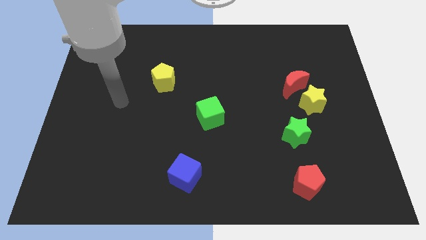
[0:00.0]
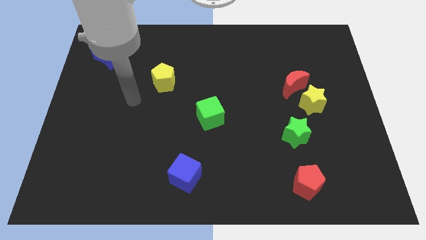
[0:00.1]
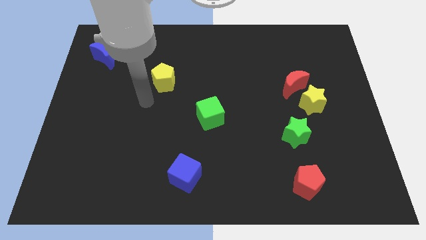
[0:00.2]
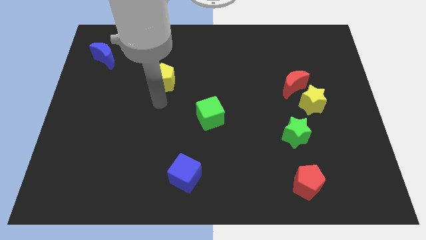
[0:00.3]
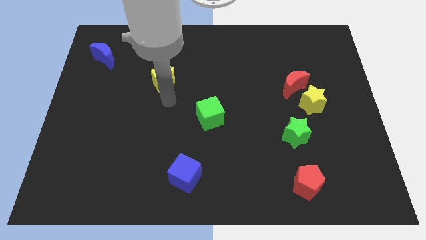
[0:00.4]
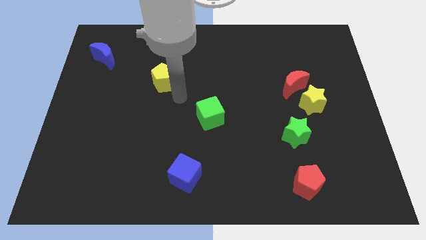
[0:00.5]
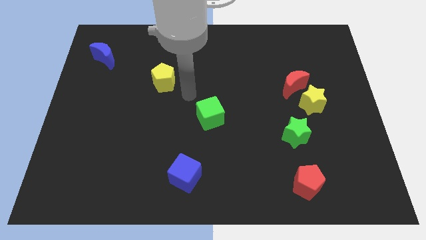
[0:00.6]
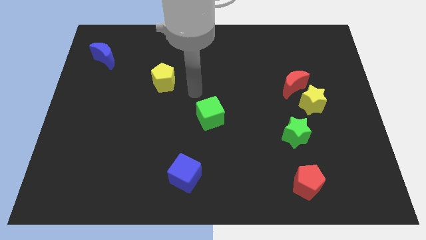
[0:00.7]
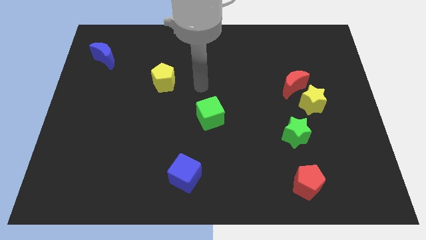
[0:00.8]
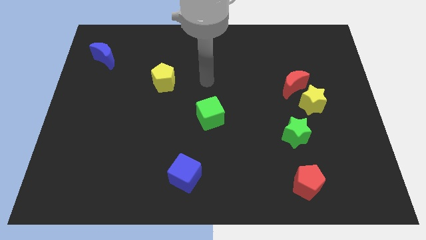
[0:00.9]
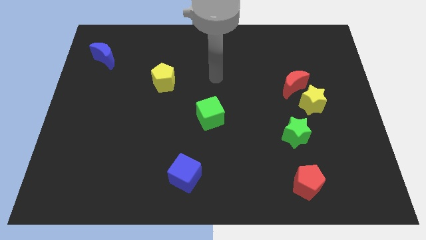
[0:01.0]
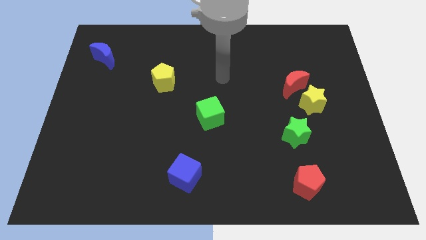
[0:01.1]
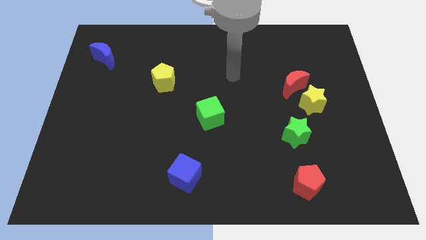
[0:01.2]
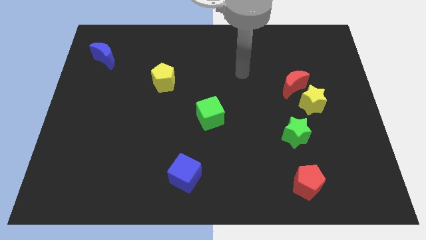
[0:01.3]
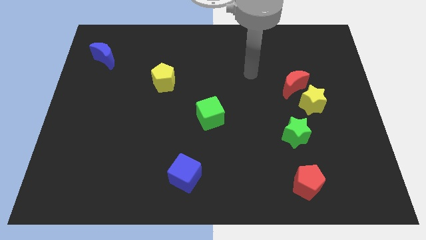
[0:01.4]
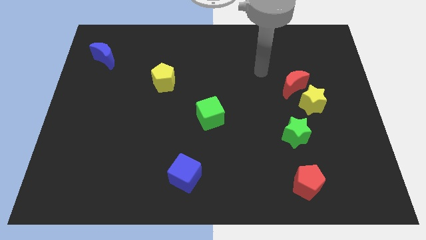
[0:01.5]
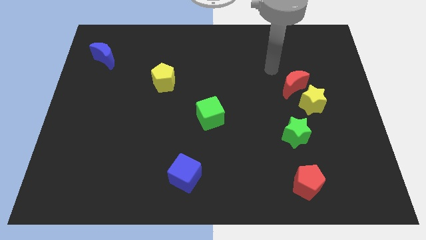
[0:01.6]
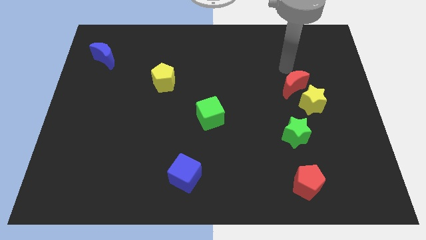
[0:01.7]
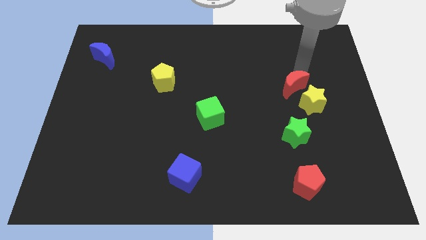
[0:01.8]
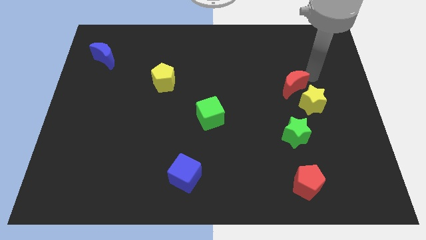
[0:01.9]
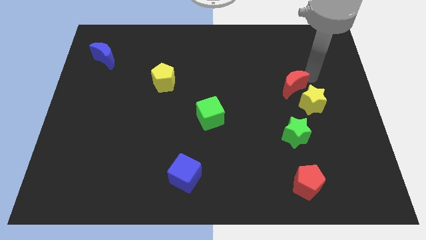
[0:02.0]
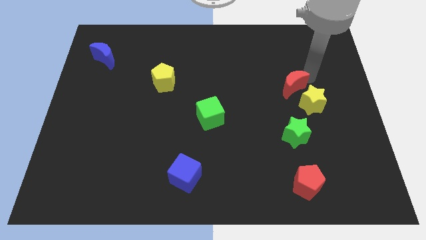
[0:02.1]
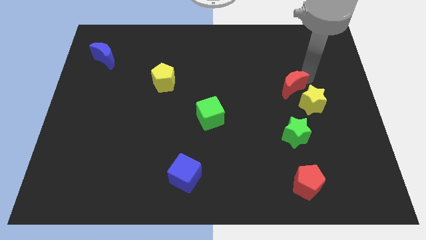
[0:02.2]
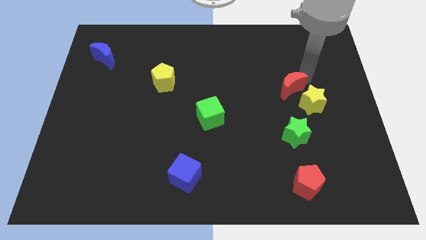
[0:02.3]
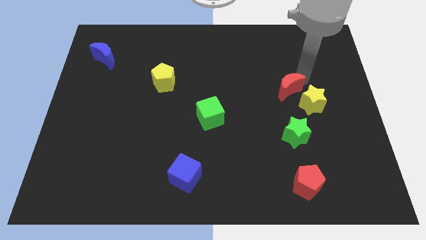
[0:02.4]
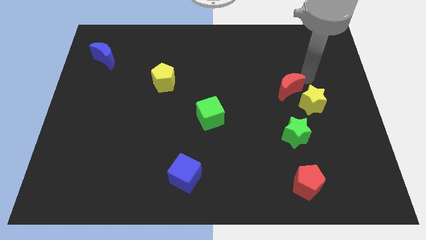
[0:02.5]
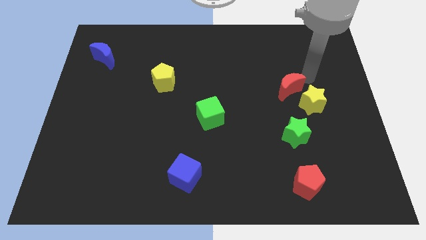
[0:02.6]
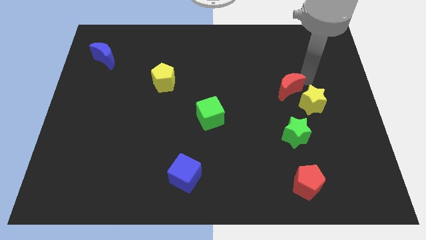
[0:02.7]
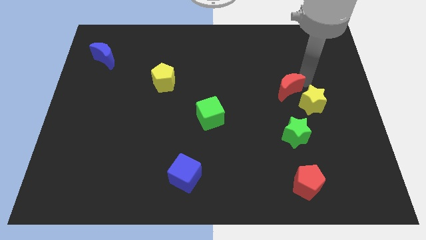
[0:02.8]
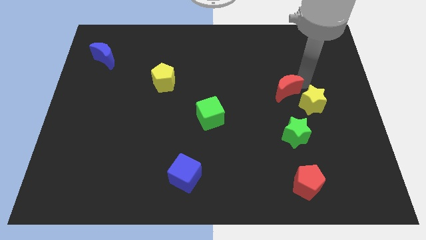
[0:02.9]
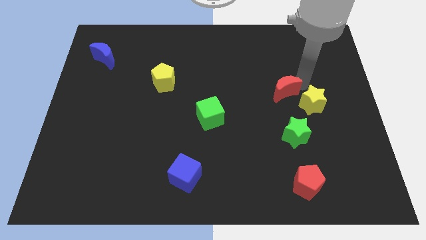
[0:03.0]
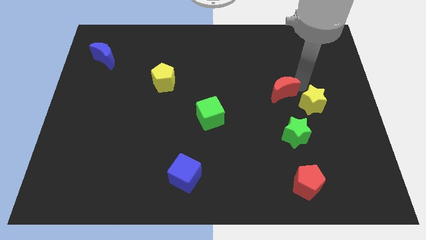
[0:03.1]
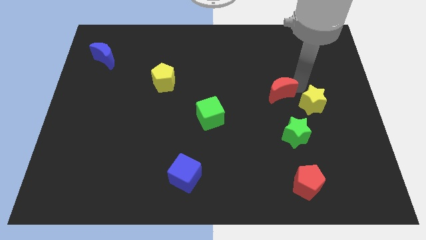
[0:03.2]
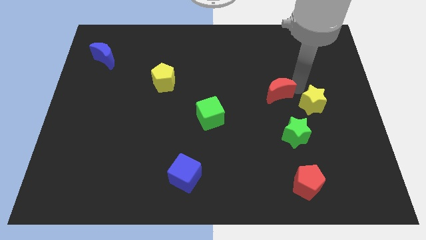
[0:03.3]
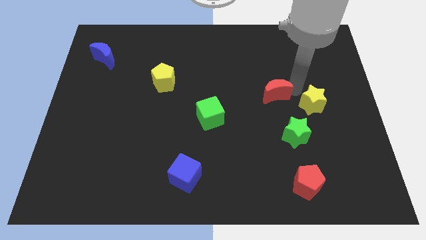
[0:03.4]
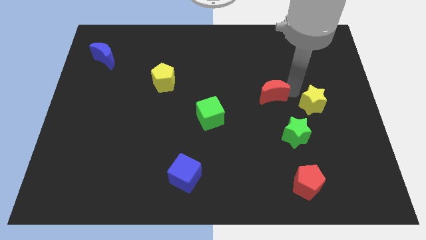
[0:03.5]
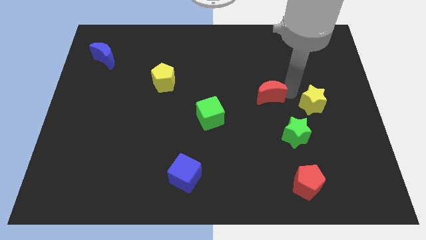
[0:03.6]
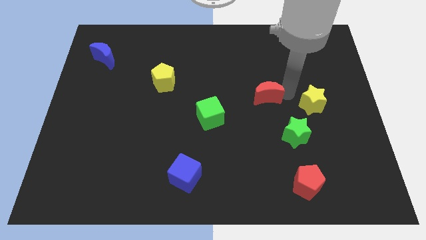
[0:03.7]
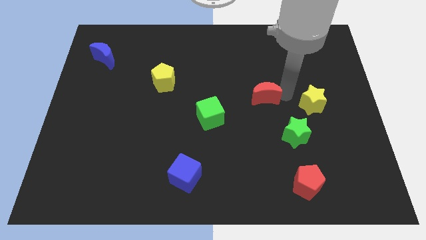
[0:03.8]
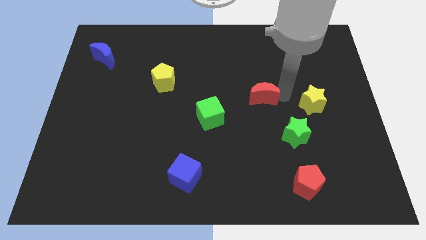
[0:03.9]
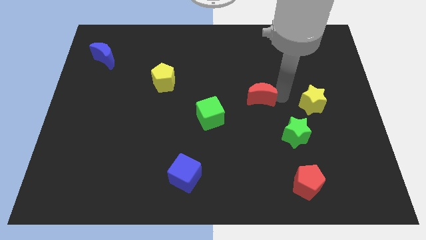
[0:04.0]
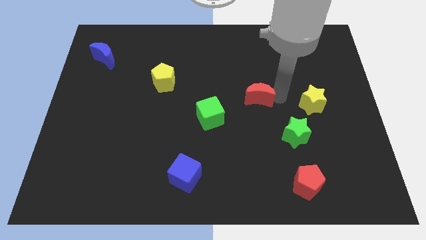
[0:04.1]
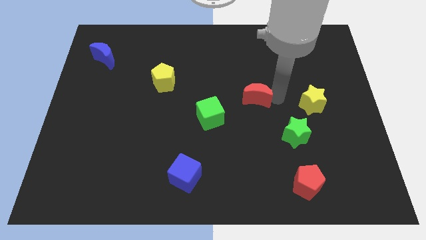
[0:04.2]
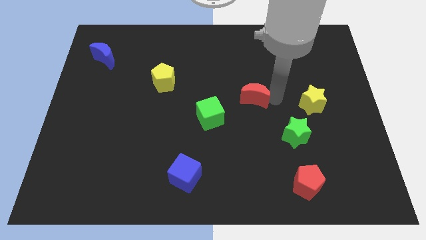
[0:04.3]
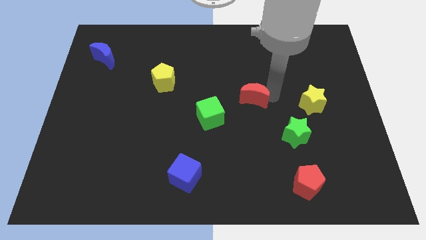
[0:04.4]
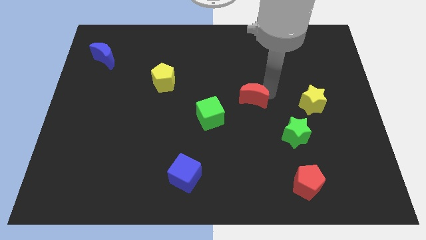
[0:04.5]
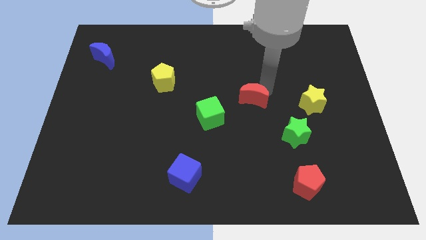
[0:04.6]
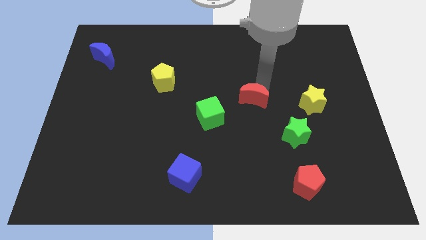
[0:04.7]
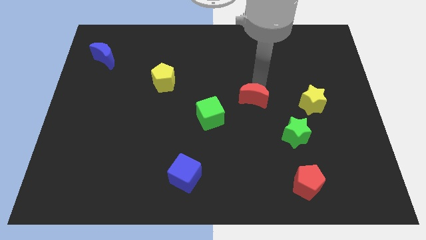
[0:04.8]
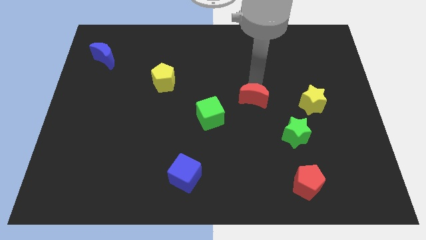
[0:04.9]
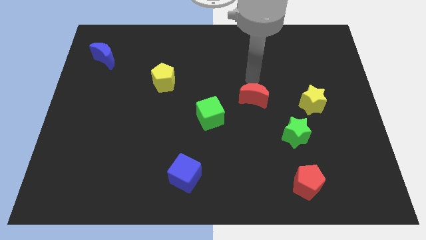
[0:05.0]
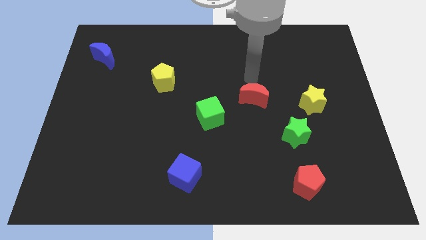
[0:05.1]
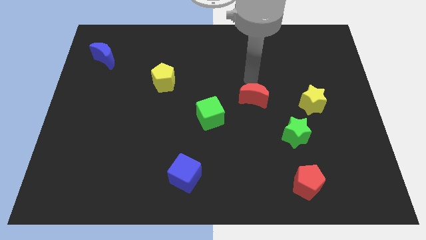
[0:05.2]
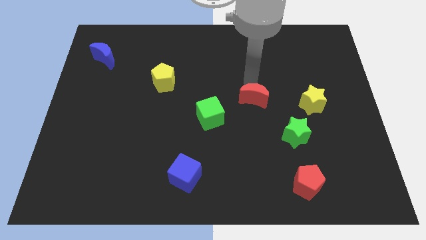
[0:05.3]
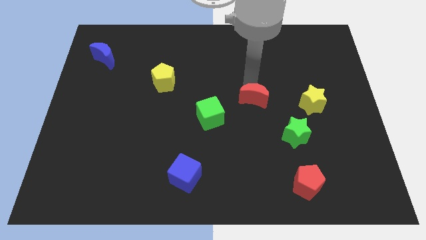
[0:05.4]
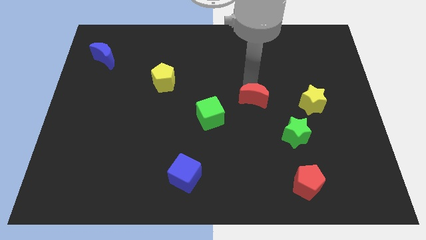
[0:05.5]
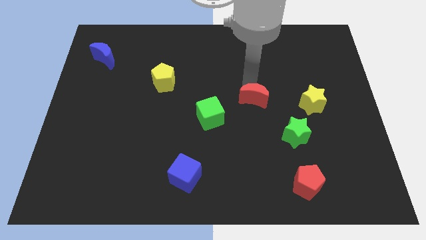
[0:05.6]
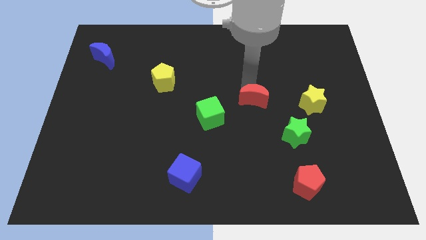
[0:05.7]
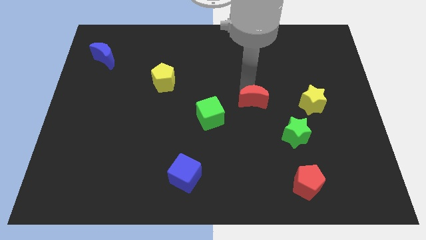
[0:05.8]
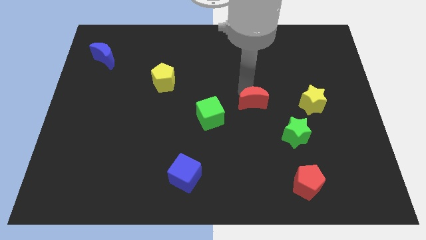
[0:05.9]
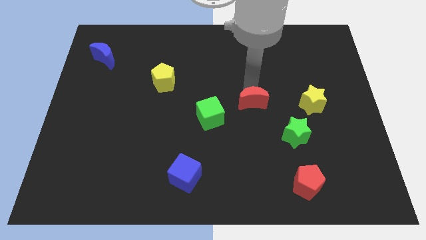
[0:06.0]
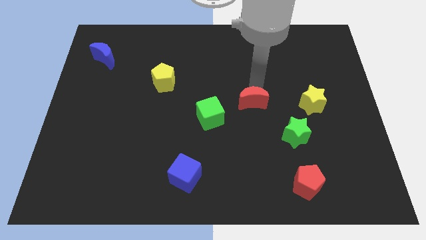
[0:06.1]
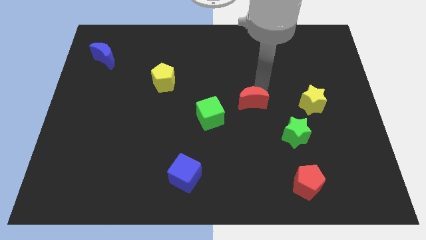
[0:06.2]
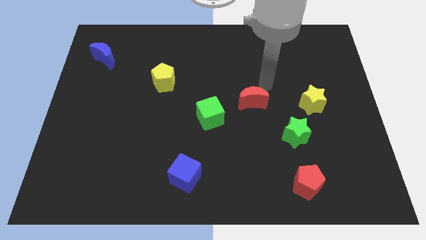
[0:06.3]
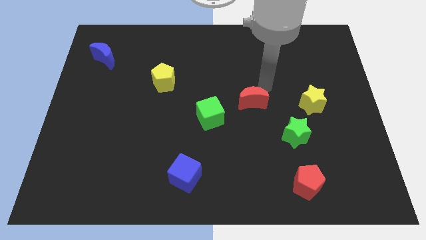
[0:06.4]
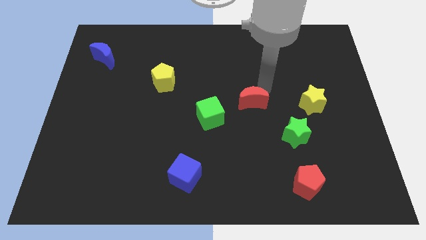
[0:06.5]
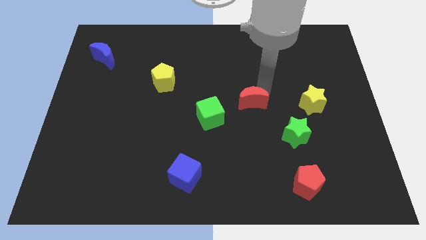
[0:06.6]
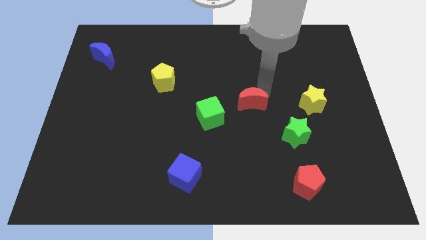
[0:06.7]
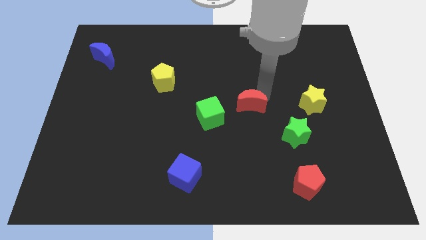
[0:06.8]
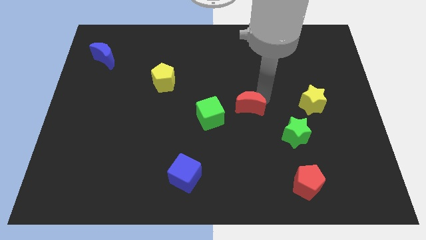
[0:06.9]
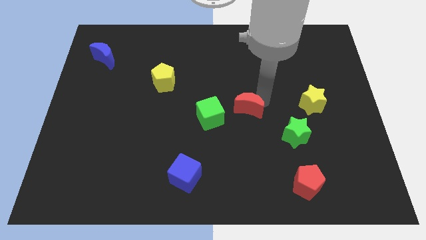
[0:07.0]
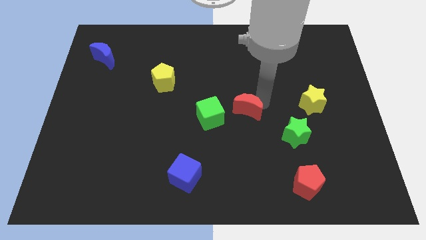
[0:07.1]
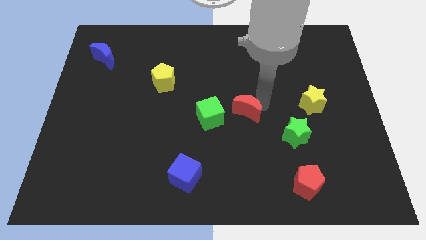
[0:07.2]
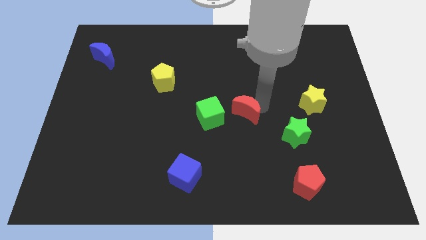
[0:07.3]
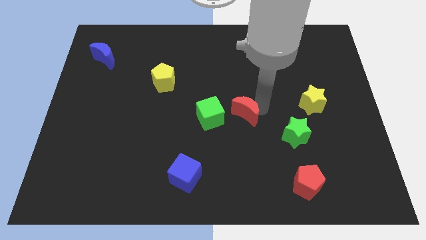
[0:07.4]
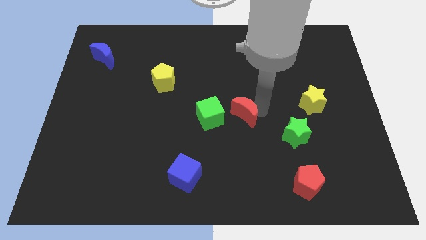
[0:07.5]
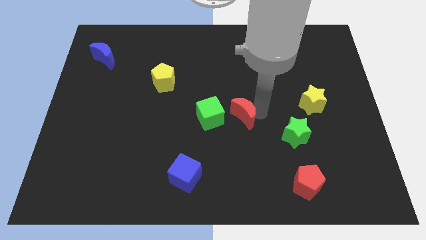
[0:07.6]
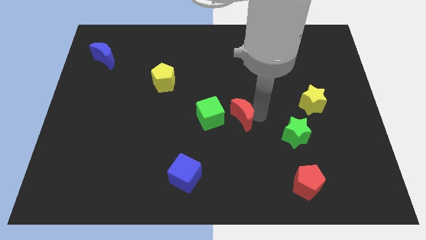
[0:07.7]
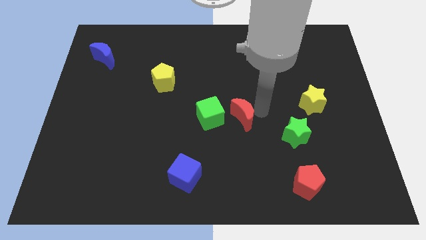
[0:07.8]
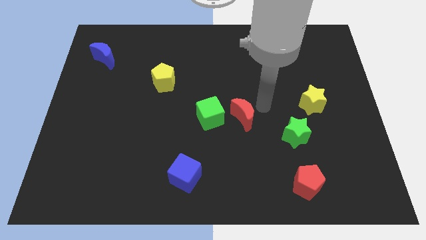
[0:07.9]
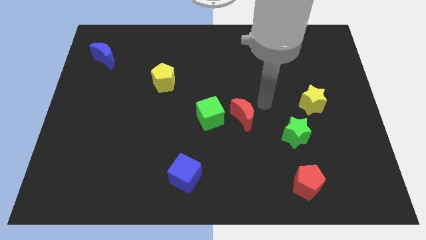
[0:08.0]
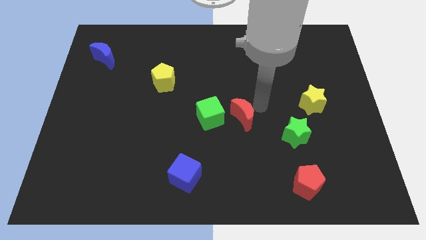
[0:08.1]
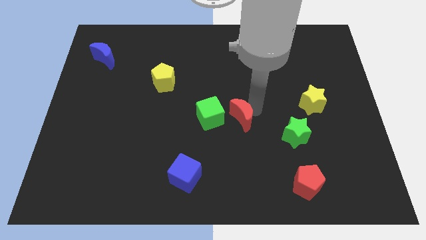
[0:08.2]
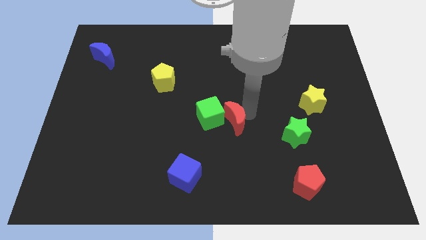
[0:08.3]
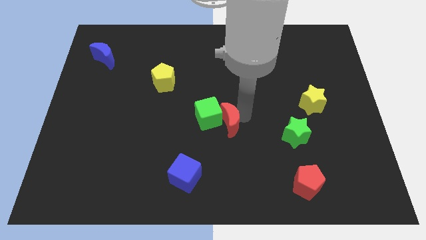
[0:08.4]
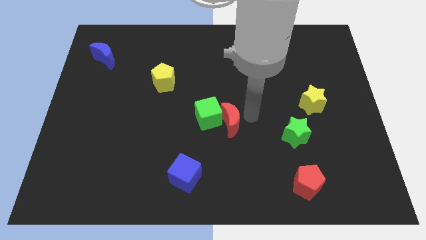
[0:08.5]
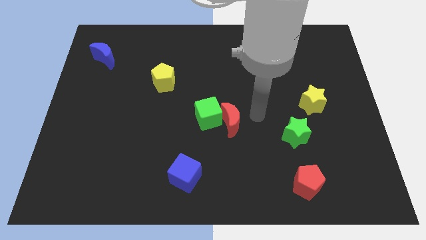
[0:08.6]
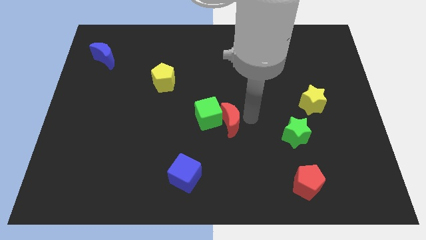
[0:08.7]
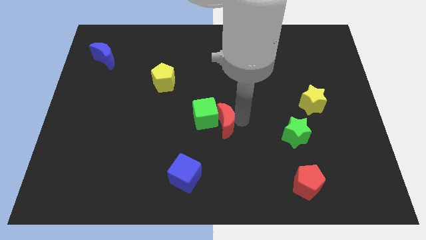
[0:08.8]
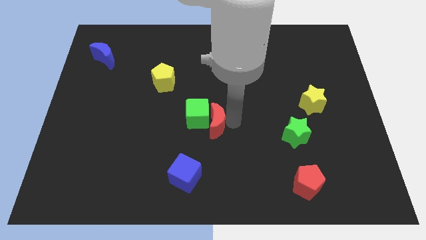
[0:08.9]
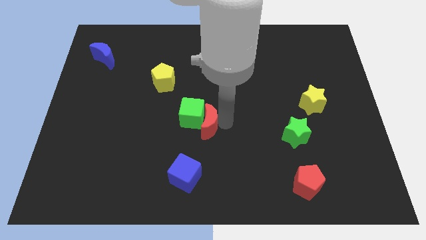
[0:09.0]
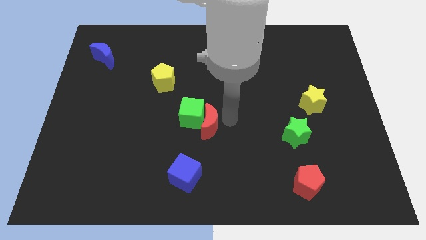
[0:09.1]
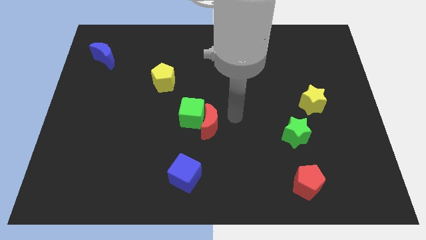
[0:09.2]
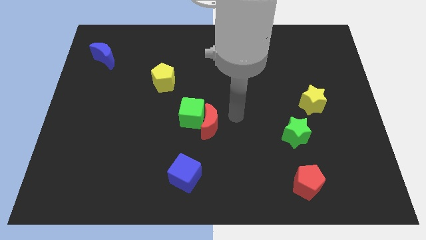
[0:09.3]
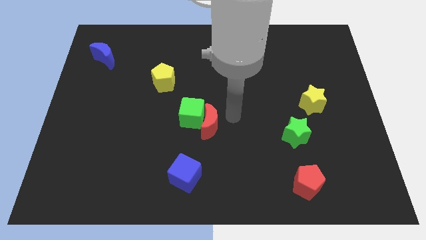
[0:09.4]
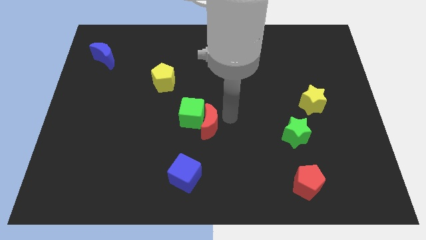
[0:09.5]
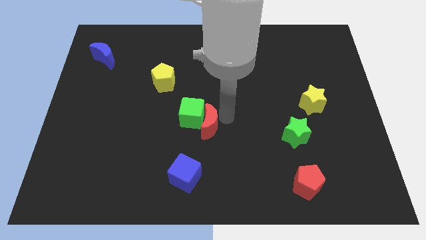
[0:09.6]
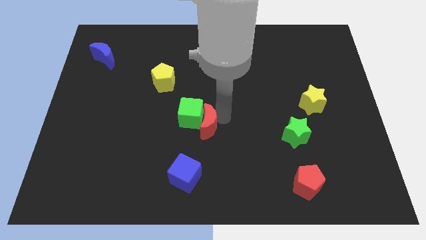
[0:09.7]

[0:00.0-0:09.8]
put the red moon above the blue cube
